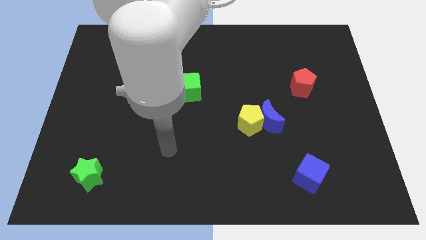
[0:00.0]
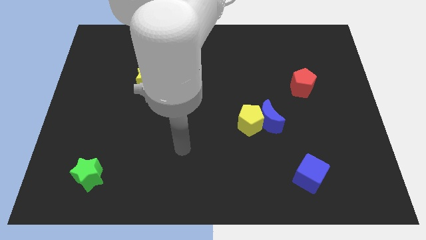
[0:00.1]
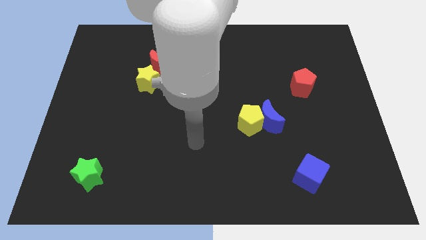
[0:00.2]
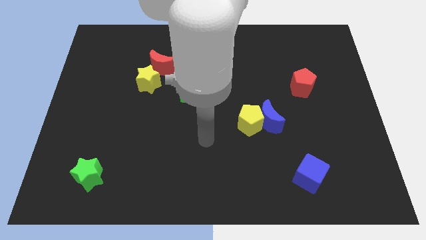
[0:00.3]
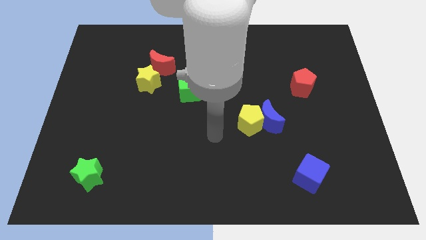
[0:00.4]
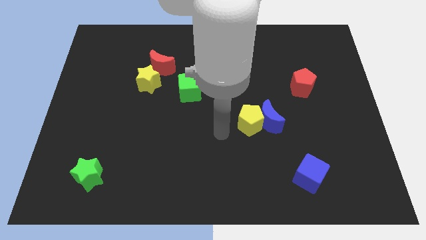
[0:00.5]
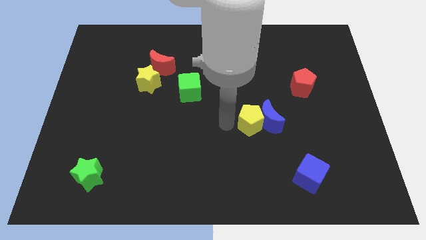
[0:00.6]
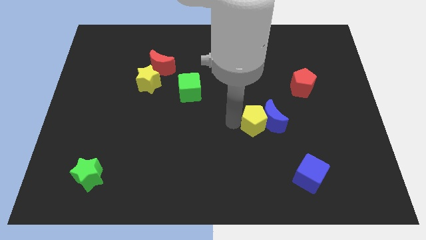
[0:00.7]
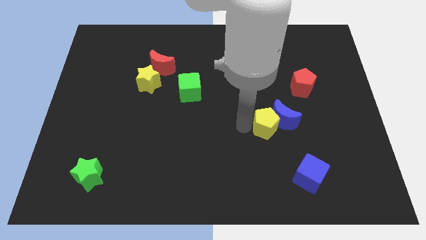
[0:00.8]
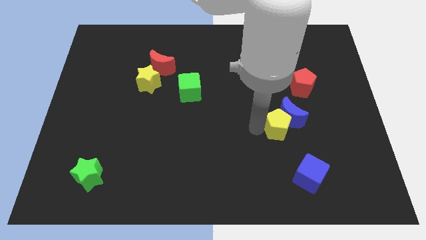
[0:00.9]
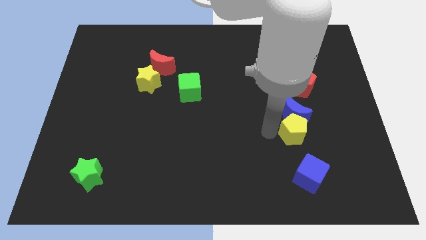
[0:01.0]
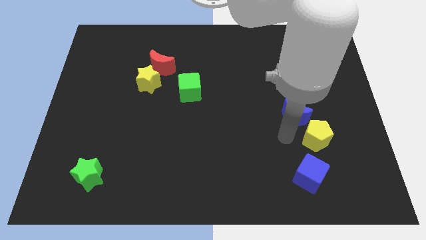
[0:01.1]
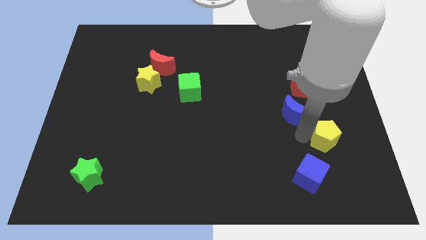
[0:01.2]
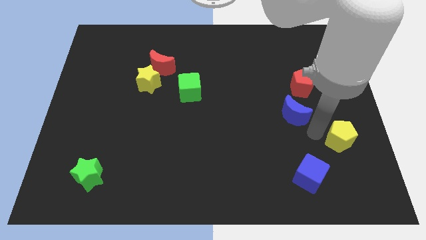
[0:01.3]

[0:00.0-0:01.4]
move the blue moon away from the yellow pentagon

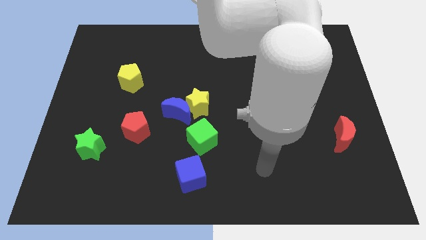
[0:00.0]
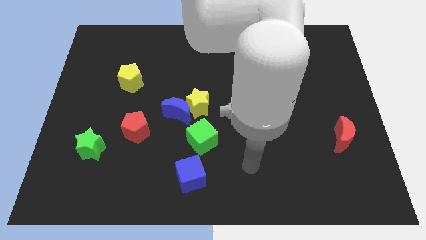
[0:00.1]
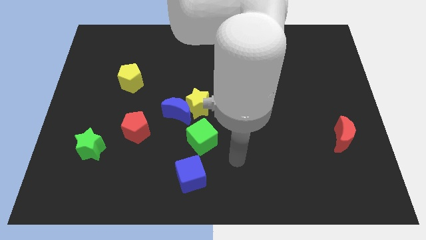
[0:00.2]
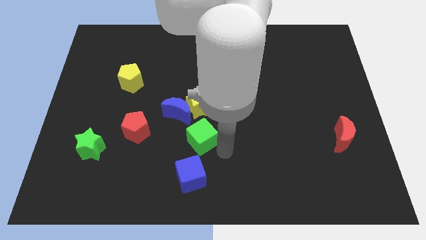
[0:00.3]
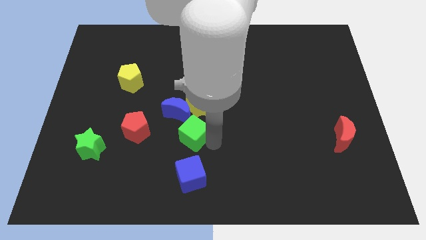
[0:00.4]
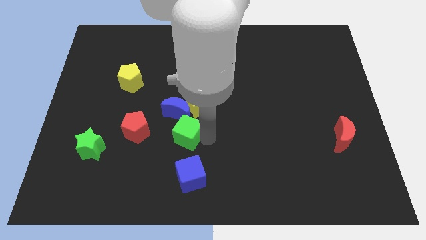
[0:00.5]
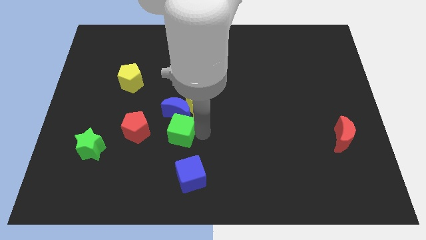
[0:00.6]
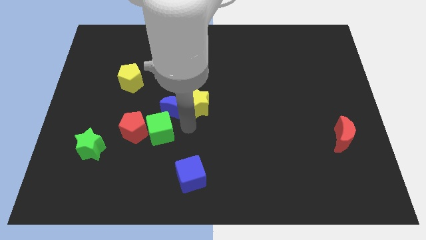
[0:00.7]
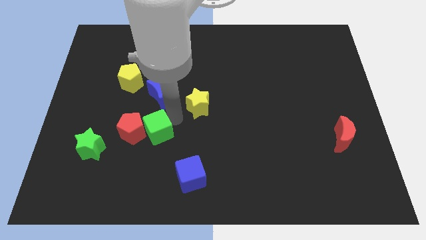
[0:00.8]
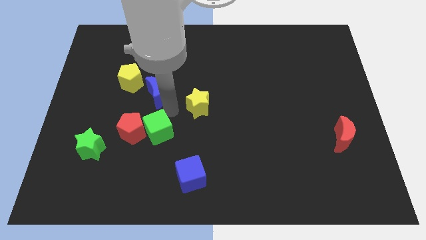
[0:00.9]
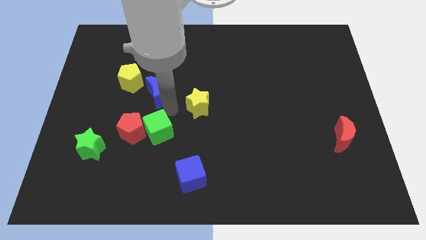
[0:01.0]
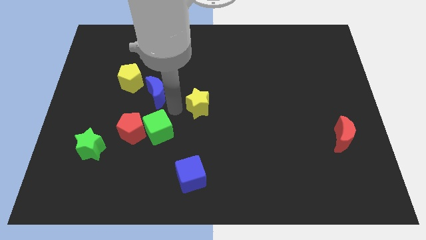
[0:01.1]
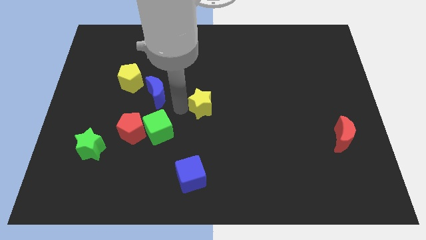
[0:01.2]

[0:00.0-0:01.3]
separate the yellow star from the blue moon and green cube

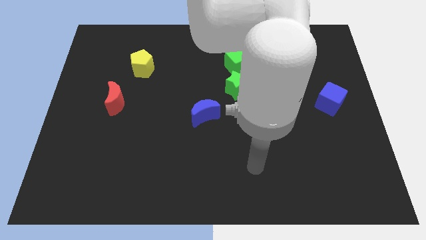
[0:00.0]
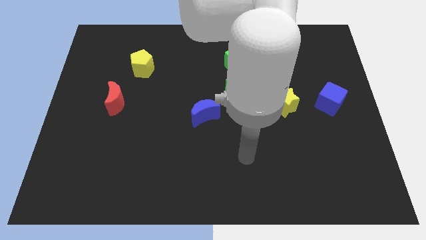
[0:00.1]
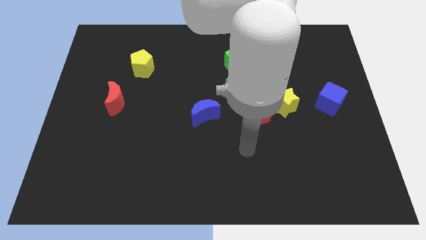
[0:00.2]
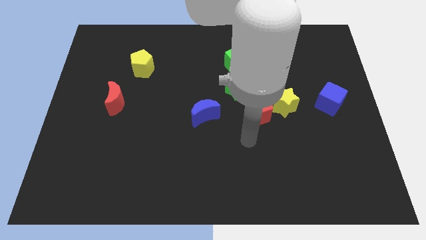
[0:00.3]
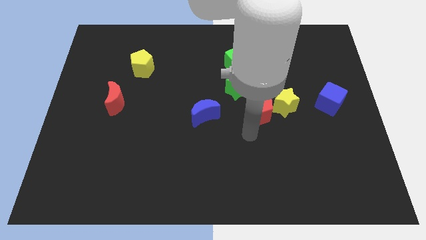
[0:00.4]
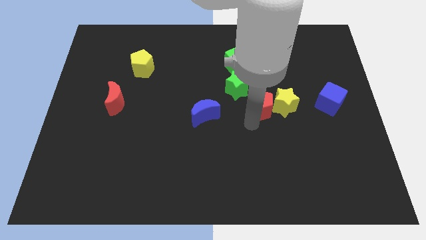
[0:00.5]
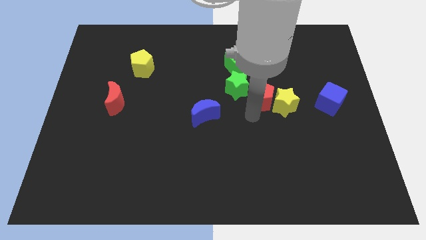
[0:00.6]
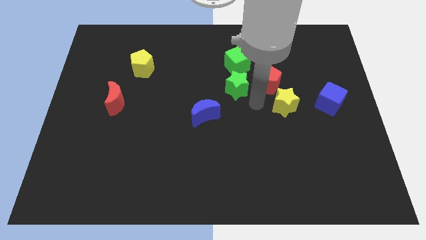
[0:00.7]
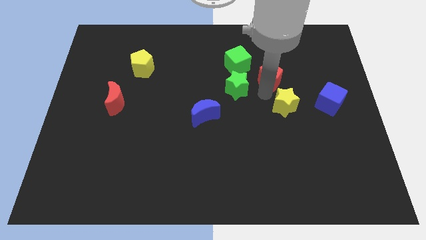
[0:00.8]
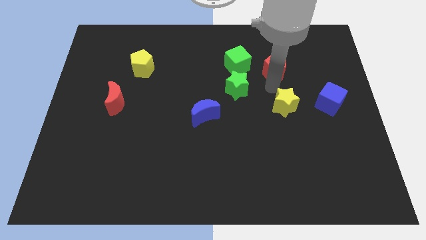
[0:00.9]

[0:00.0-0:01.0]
pull the yellow star apart from the red pentagon

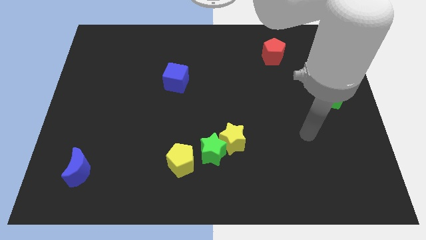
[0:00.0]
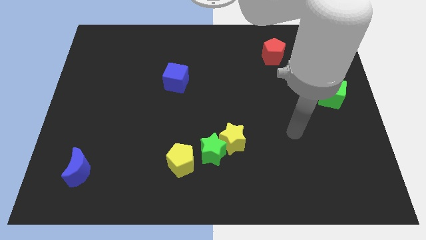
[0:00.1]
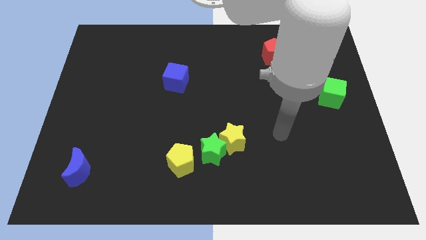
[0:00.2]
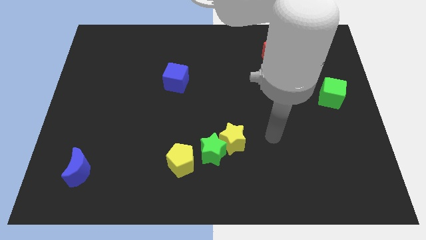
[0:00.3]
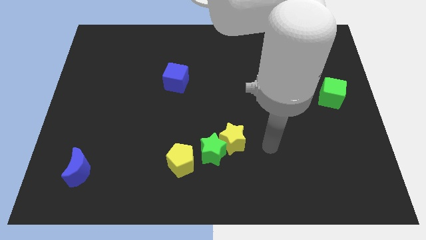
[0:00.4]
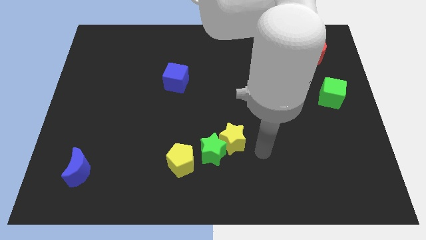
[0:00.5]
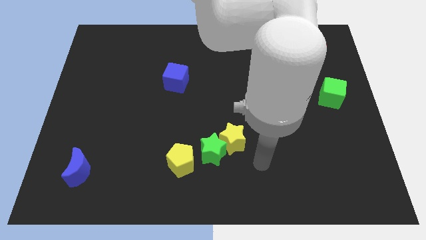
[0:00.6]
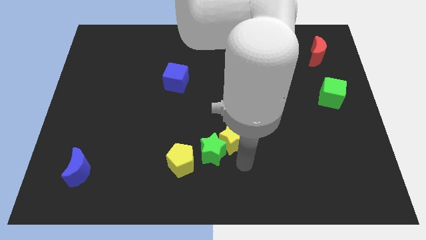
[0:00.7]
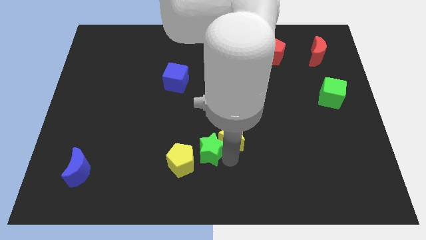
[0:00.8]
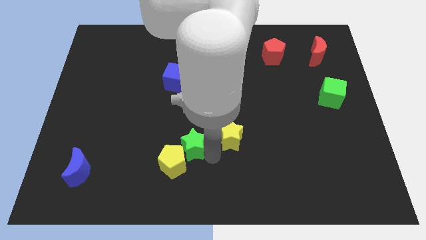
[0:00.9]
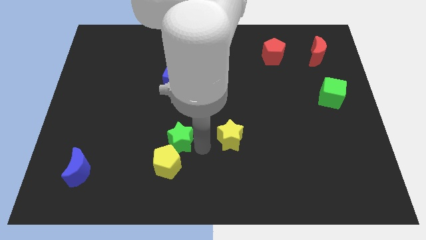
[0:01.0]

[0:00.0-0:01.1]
separate the yellow star from the green star

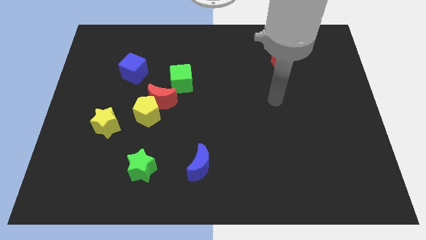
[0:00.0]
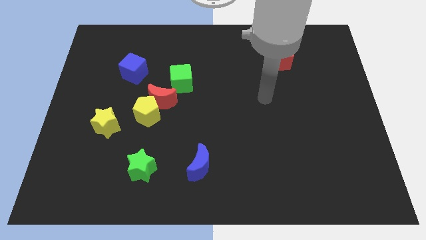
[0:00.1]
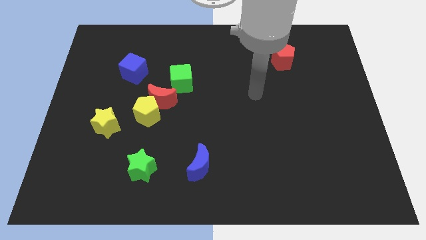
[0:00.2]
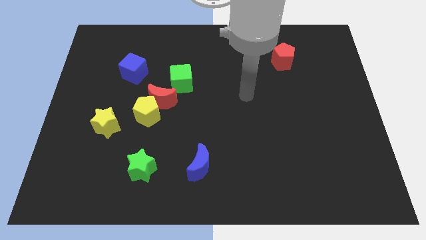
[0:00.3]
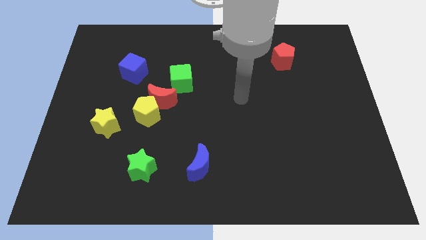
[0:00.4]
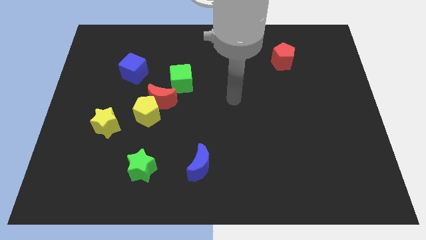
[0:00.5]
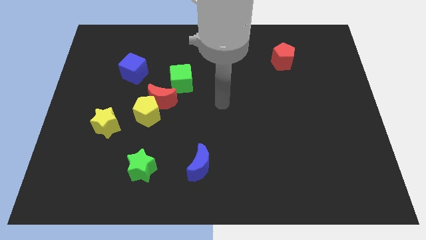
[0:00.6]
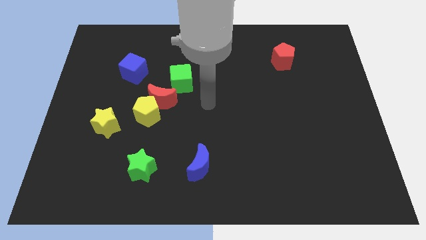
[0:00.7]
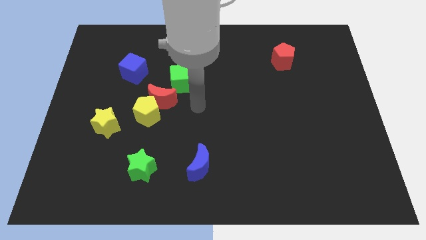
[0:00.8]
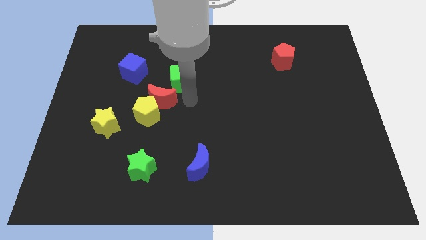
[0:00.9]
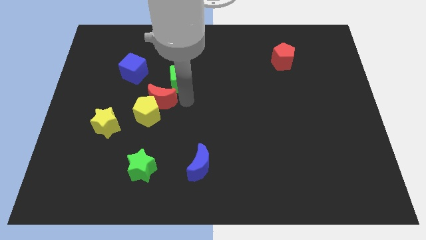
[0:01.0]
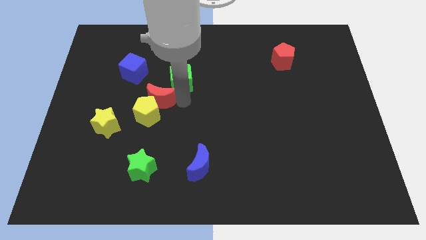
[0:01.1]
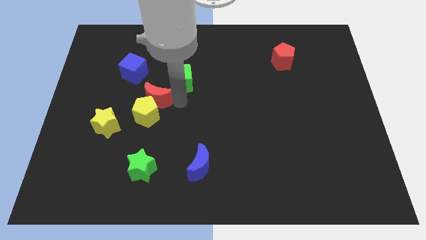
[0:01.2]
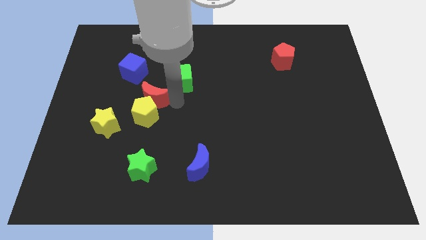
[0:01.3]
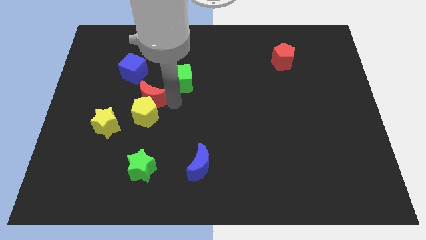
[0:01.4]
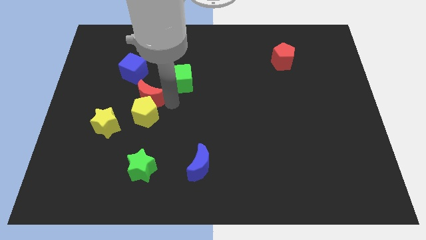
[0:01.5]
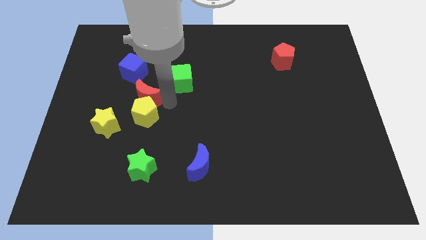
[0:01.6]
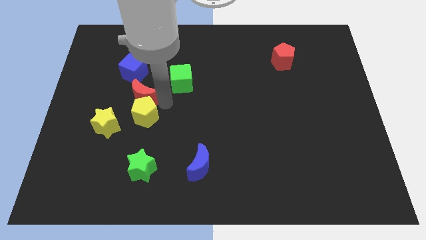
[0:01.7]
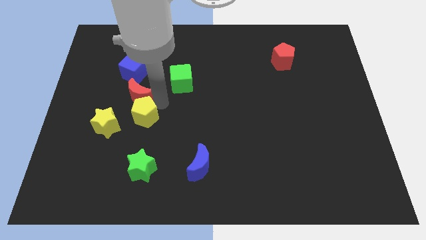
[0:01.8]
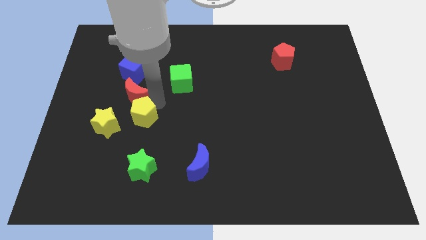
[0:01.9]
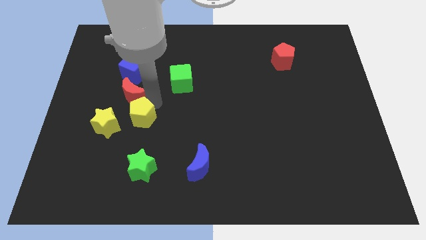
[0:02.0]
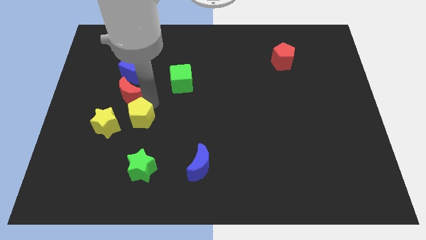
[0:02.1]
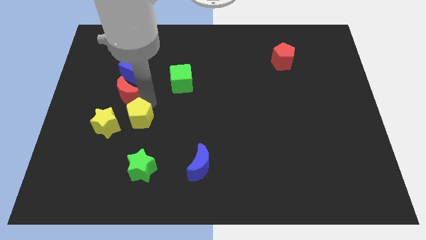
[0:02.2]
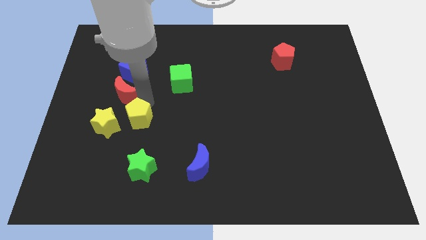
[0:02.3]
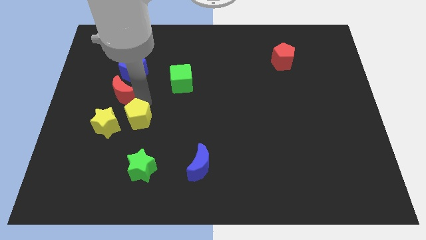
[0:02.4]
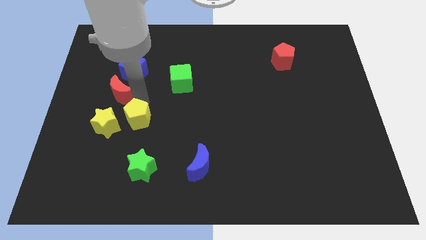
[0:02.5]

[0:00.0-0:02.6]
separate the red moon from the yellow pentagon and green cube

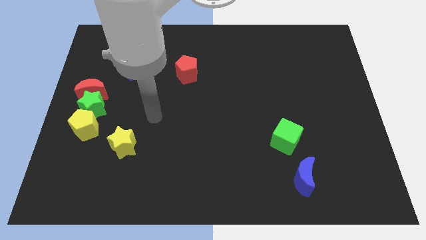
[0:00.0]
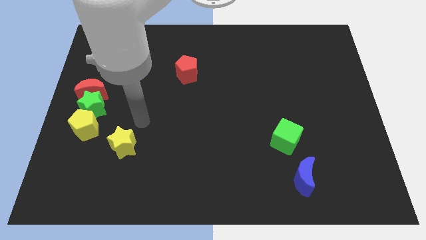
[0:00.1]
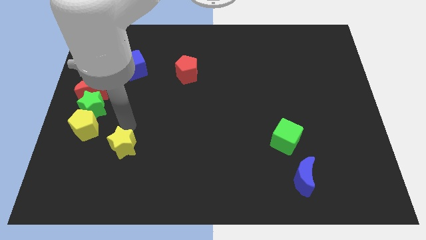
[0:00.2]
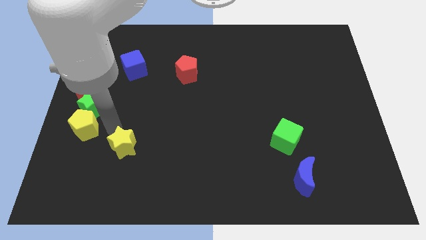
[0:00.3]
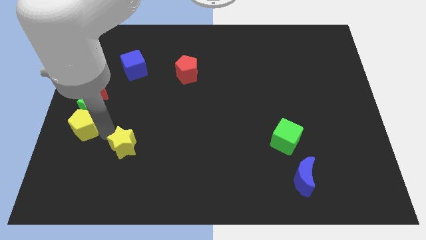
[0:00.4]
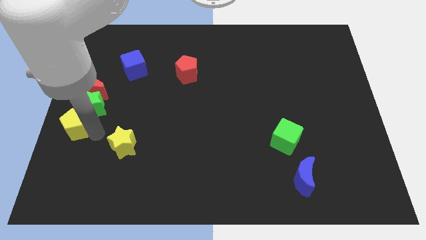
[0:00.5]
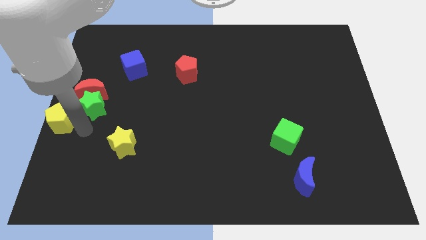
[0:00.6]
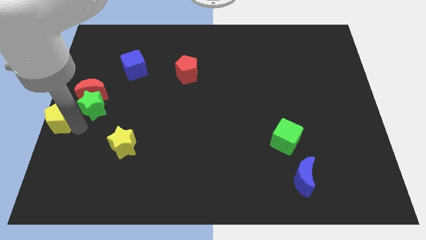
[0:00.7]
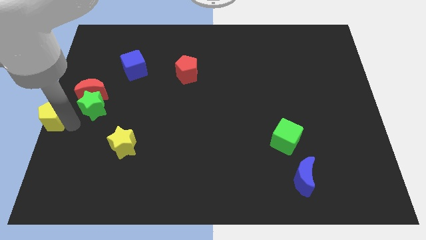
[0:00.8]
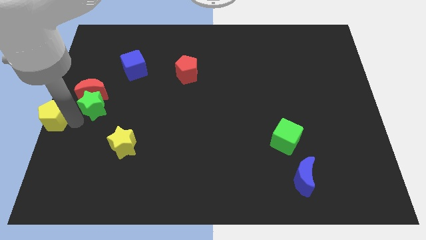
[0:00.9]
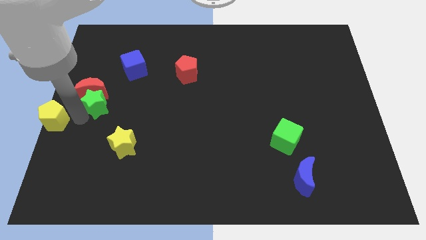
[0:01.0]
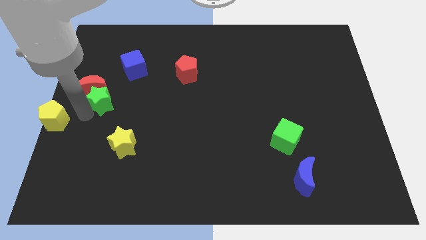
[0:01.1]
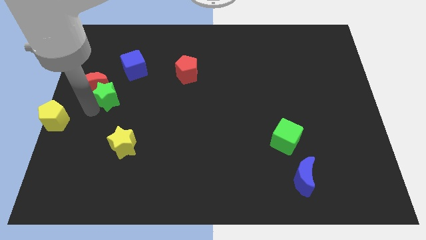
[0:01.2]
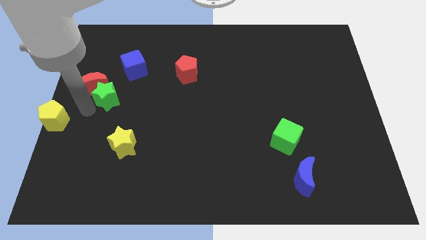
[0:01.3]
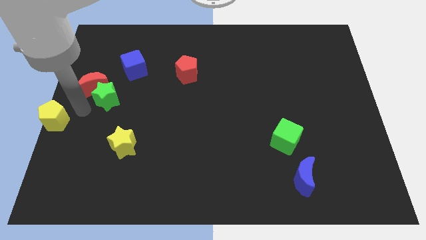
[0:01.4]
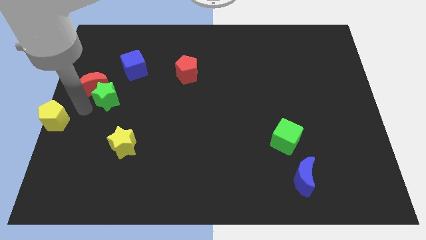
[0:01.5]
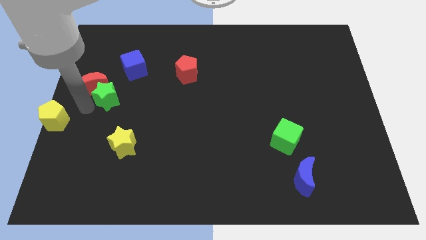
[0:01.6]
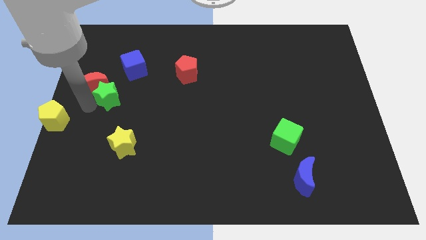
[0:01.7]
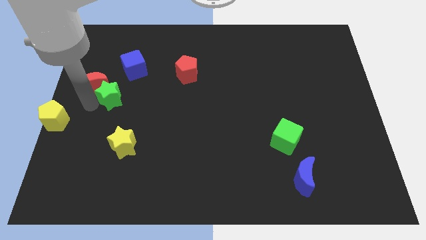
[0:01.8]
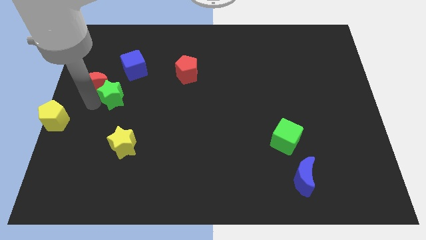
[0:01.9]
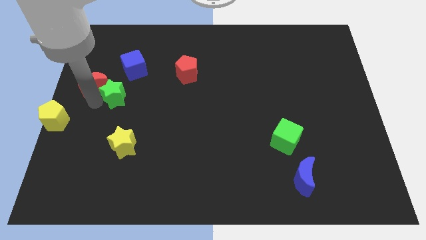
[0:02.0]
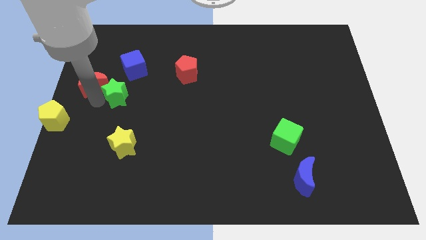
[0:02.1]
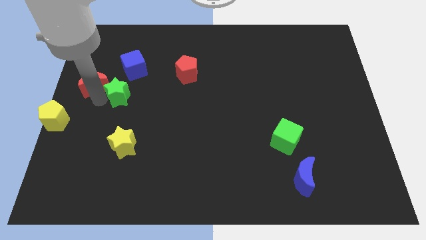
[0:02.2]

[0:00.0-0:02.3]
separate the green star from the red moon and yellow pentagon
